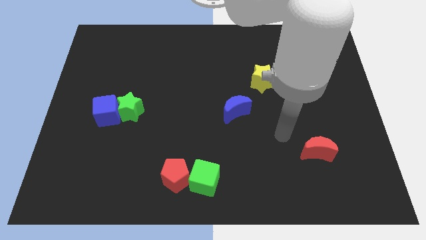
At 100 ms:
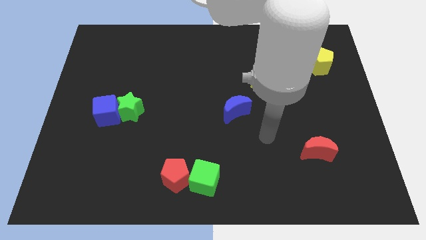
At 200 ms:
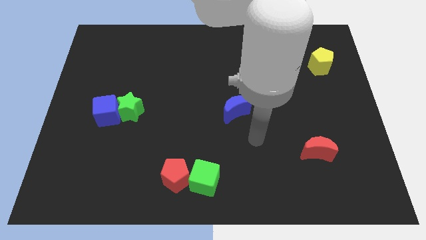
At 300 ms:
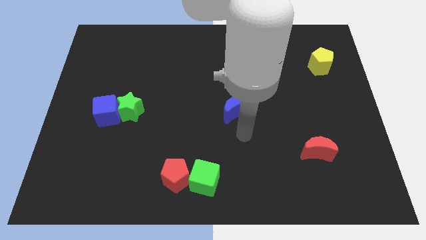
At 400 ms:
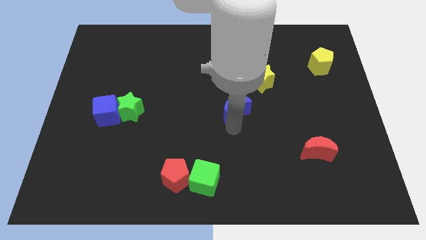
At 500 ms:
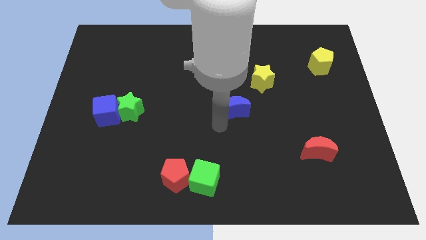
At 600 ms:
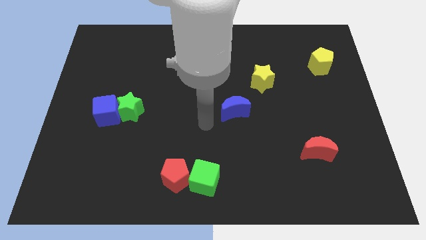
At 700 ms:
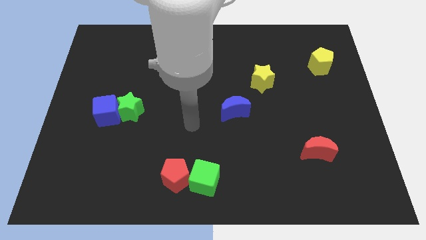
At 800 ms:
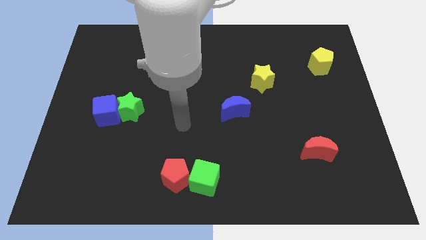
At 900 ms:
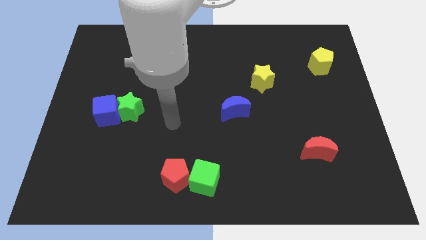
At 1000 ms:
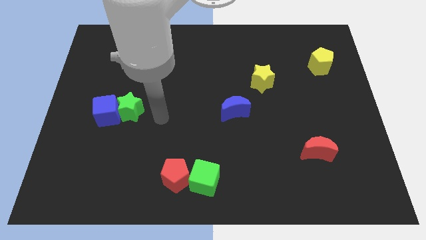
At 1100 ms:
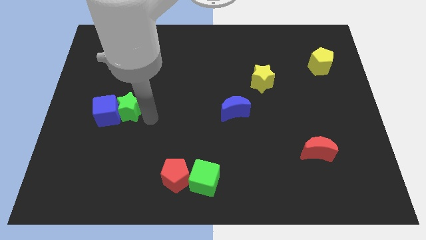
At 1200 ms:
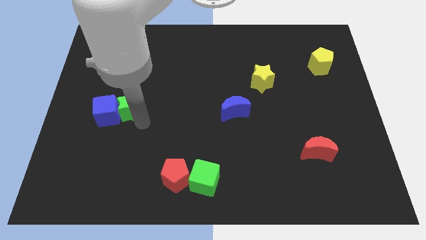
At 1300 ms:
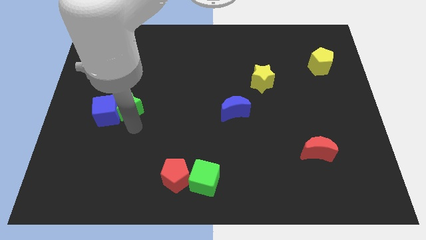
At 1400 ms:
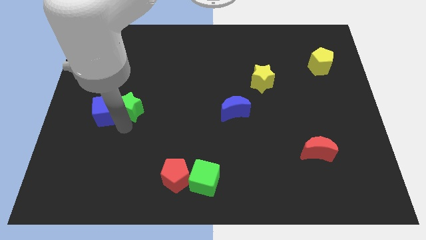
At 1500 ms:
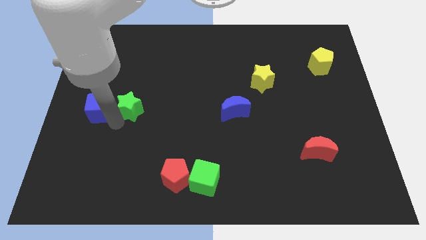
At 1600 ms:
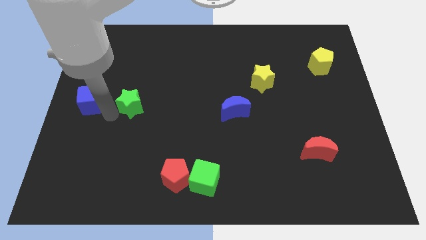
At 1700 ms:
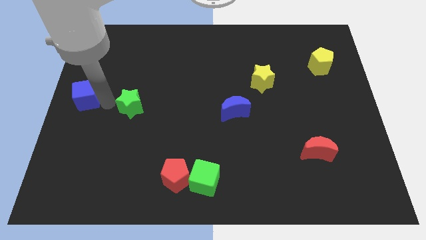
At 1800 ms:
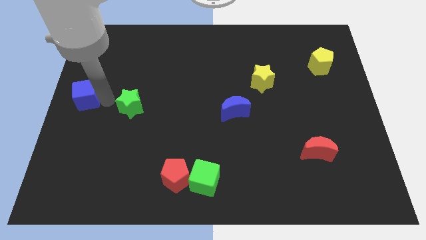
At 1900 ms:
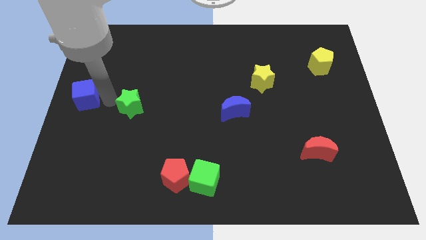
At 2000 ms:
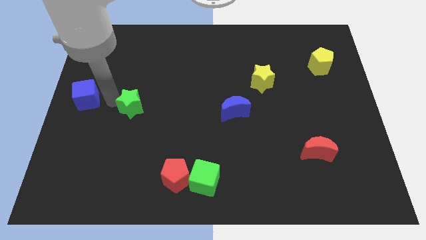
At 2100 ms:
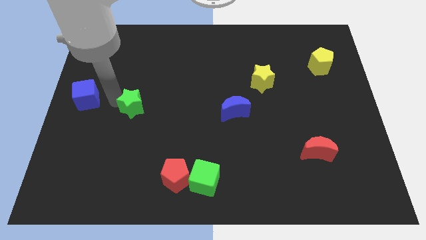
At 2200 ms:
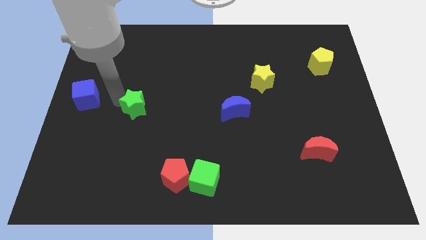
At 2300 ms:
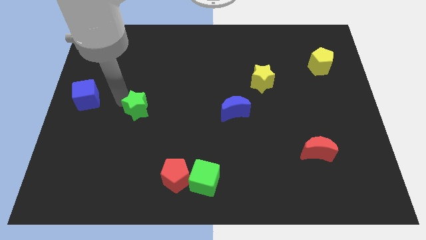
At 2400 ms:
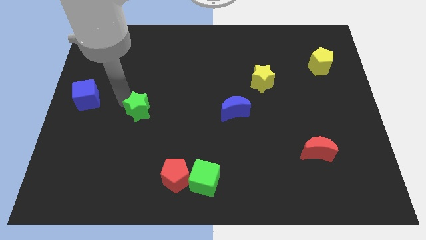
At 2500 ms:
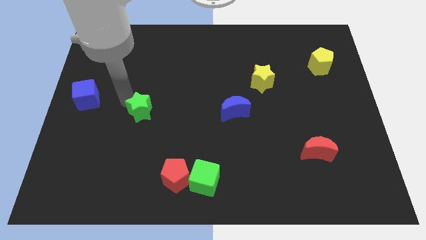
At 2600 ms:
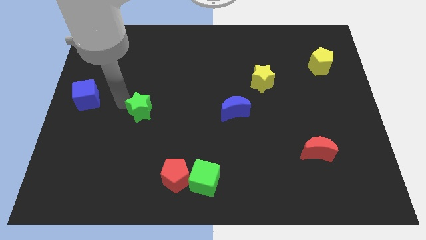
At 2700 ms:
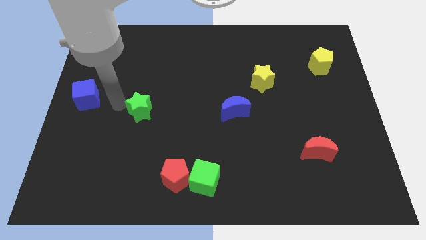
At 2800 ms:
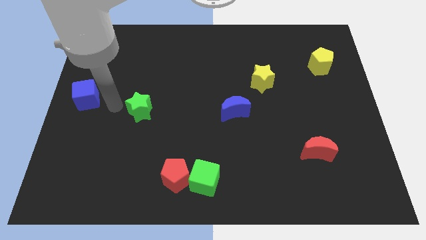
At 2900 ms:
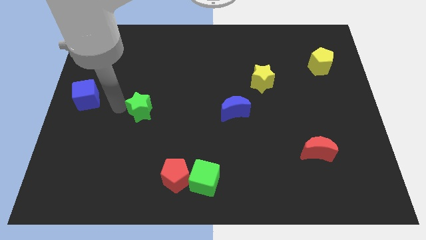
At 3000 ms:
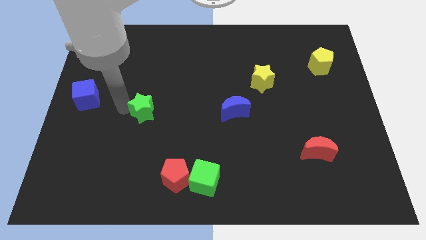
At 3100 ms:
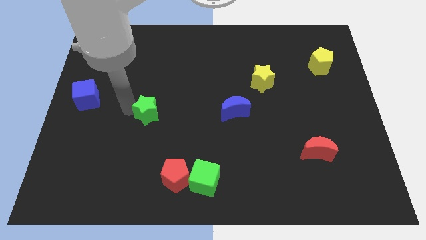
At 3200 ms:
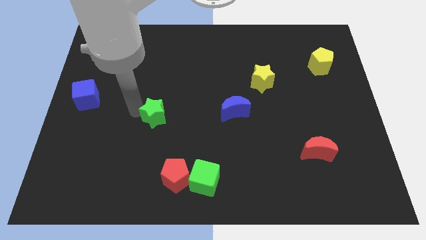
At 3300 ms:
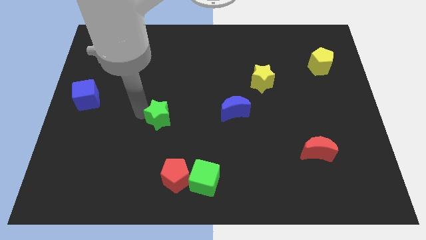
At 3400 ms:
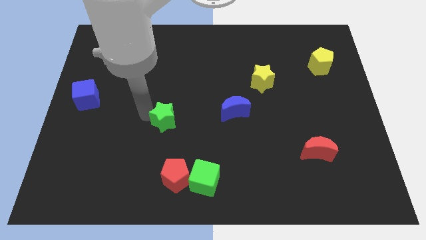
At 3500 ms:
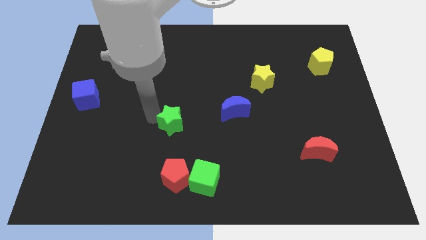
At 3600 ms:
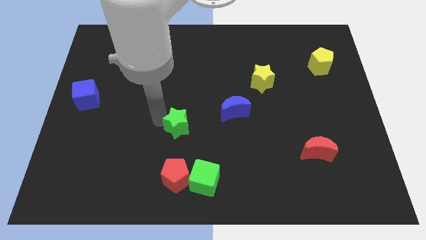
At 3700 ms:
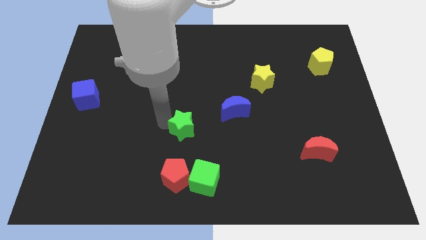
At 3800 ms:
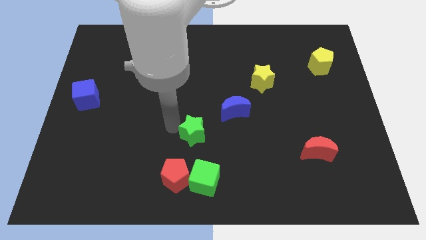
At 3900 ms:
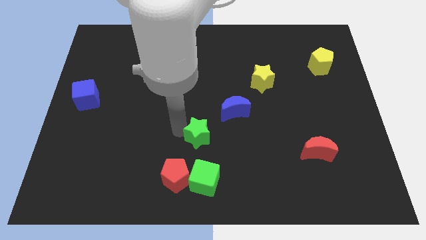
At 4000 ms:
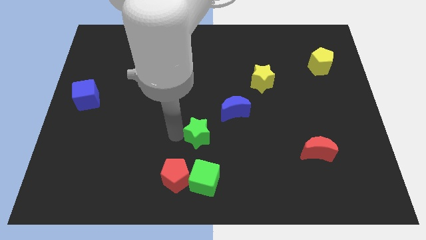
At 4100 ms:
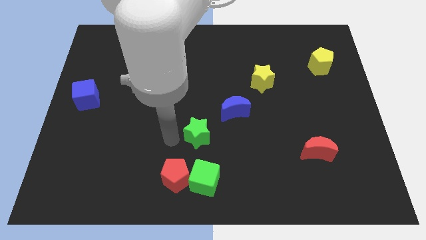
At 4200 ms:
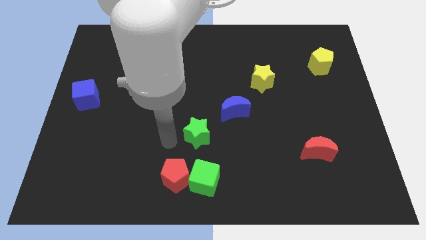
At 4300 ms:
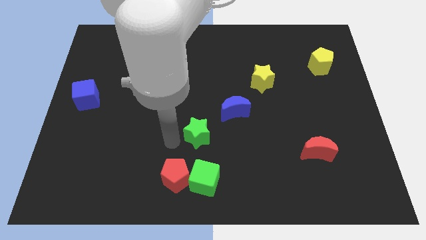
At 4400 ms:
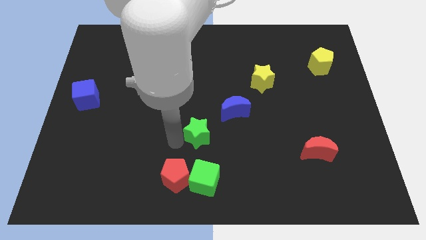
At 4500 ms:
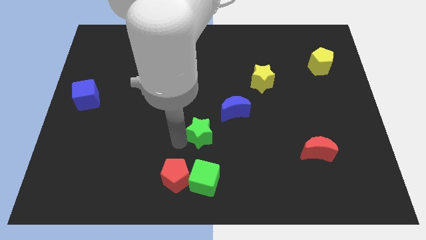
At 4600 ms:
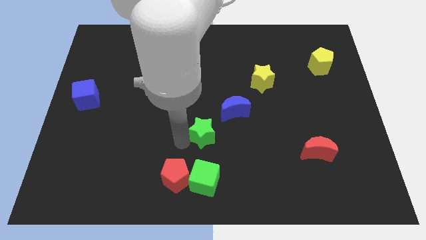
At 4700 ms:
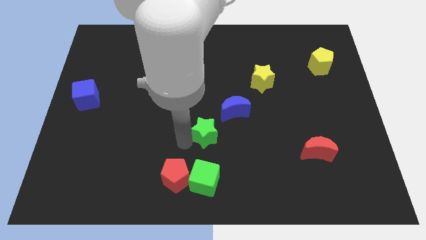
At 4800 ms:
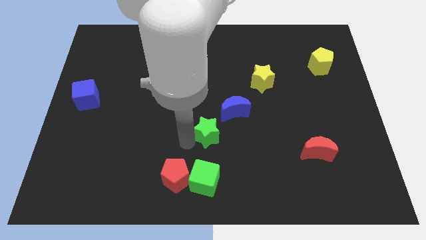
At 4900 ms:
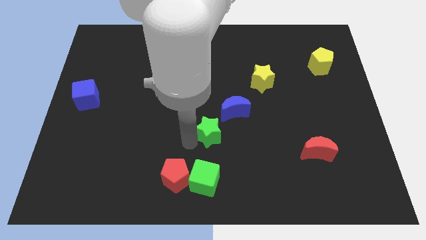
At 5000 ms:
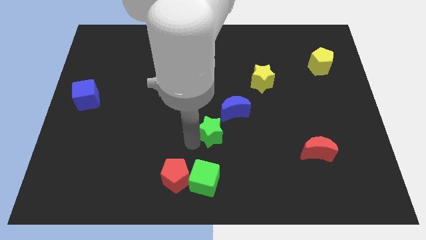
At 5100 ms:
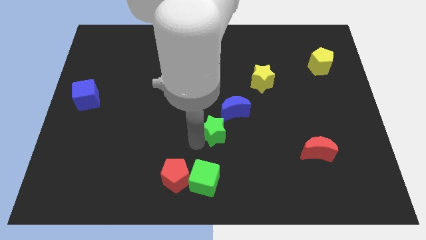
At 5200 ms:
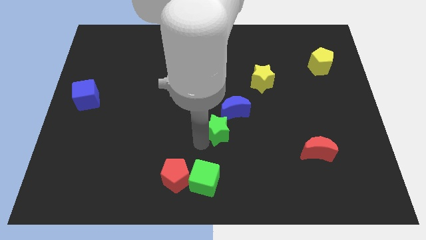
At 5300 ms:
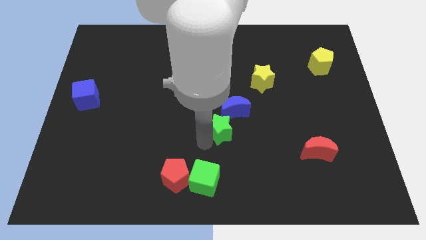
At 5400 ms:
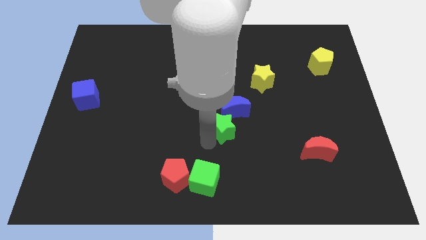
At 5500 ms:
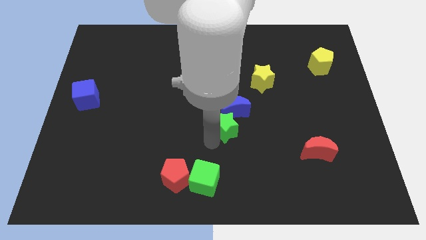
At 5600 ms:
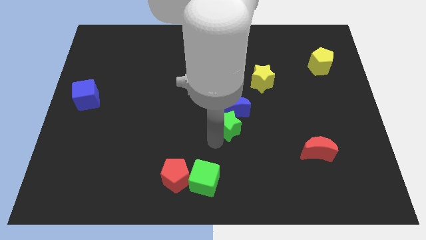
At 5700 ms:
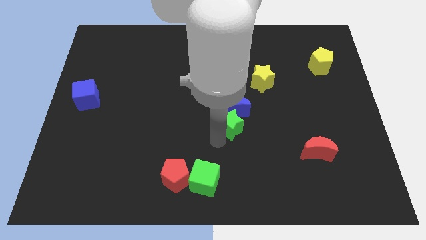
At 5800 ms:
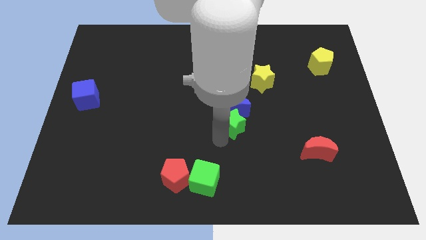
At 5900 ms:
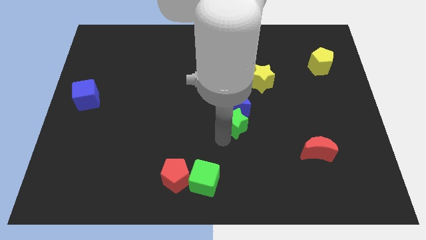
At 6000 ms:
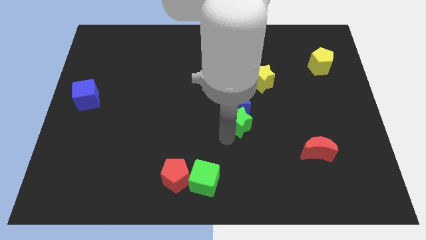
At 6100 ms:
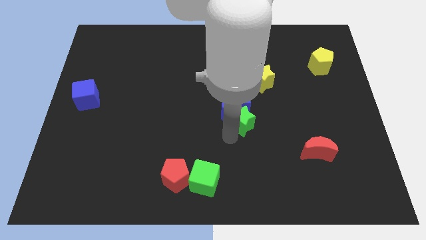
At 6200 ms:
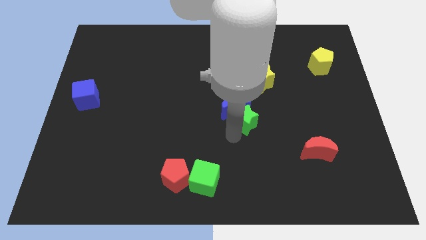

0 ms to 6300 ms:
slide the green star below the yellow star

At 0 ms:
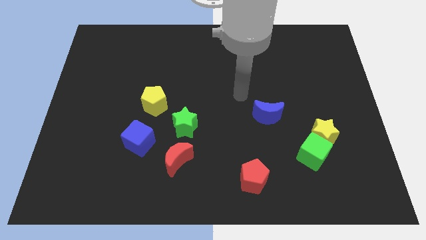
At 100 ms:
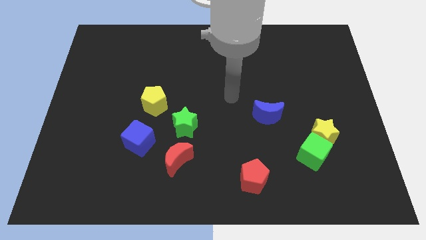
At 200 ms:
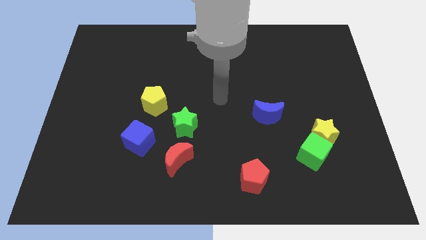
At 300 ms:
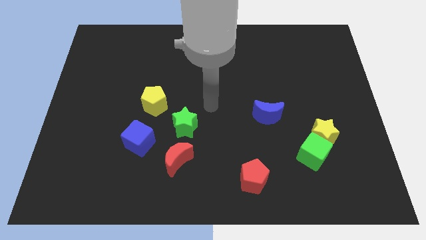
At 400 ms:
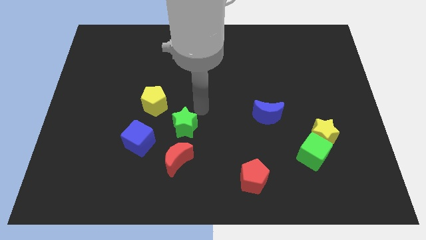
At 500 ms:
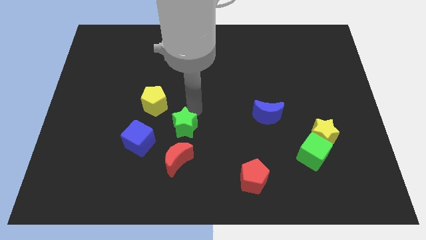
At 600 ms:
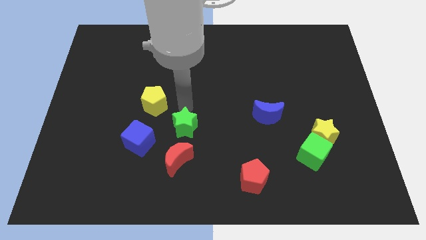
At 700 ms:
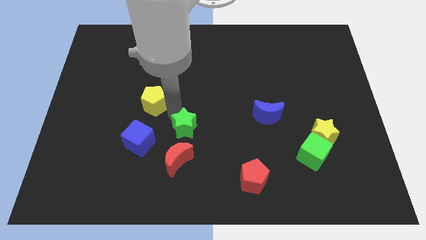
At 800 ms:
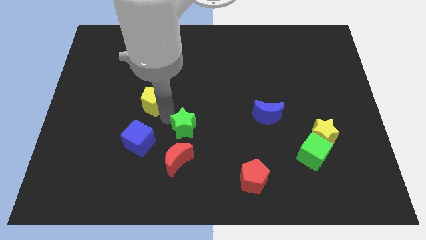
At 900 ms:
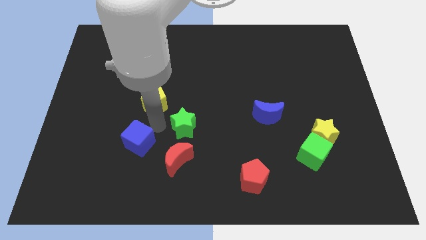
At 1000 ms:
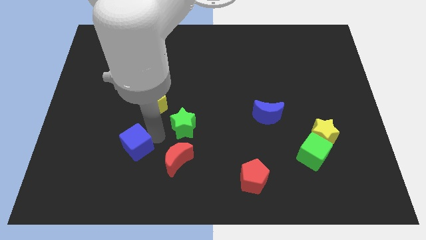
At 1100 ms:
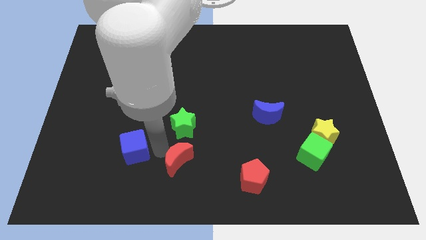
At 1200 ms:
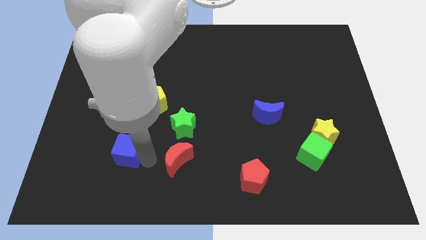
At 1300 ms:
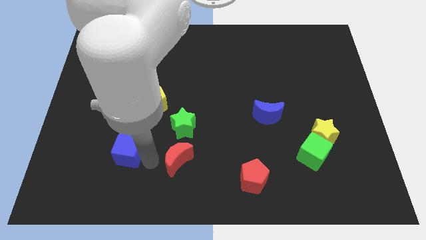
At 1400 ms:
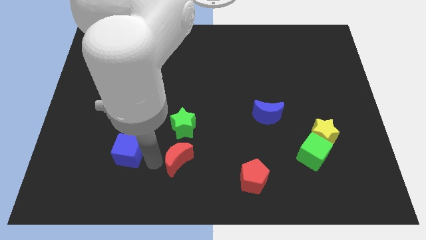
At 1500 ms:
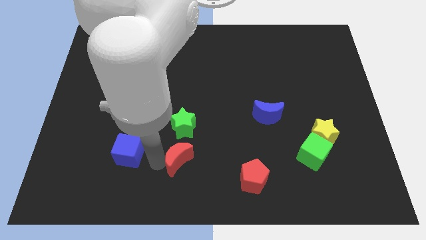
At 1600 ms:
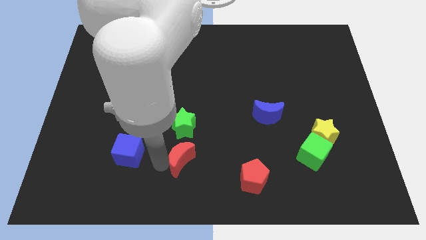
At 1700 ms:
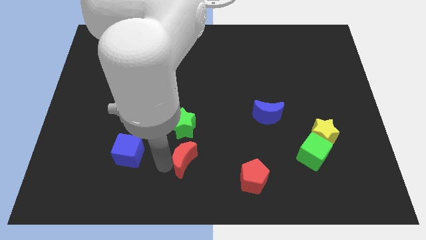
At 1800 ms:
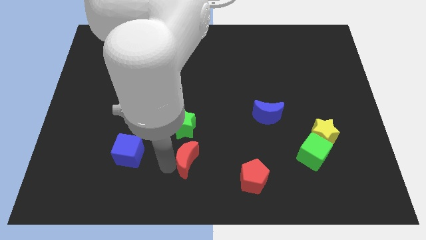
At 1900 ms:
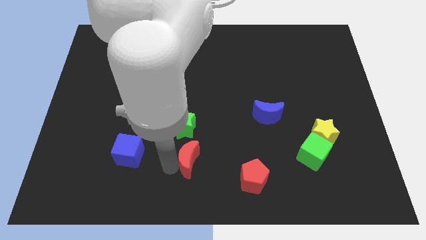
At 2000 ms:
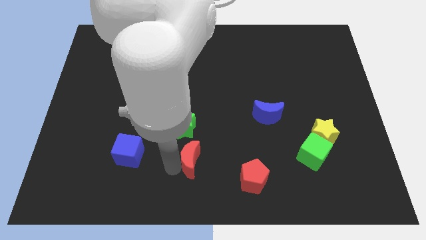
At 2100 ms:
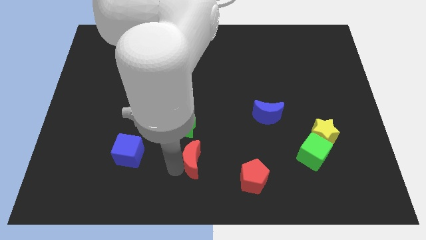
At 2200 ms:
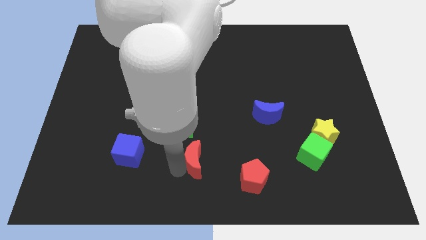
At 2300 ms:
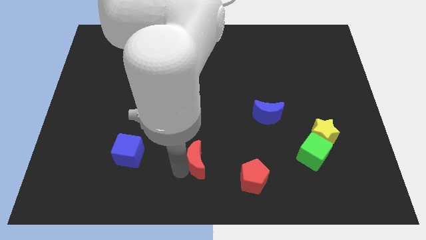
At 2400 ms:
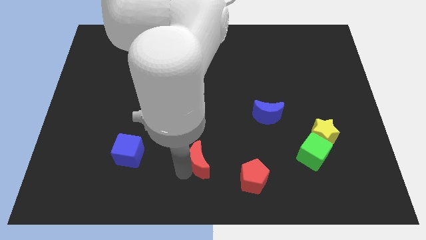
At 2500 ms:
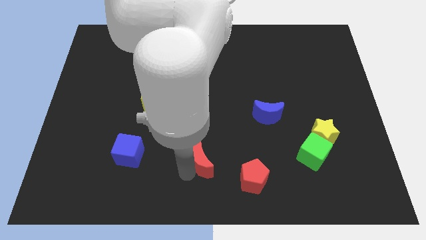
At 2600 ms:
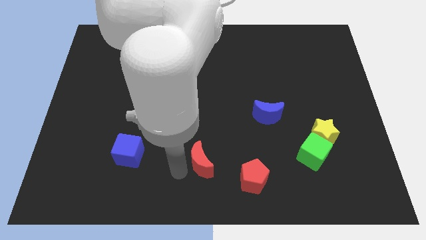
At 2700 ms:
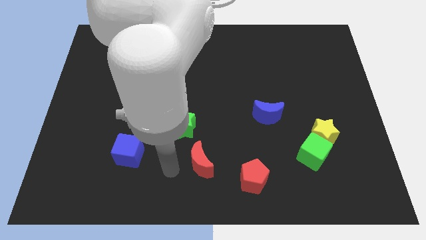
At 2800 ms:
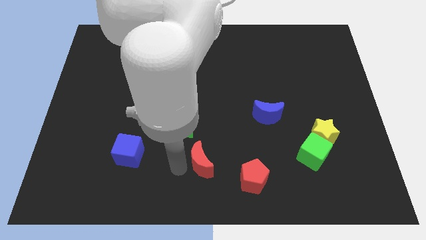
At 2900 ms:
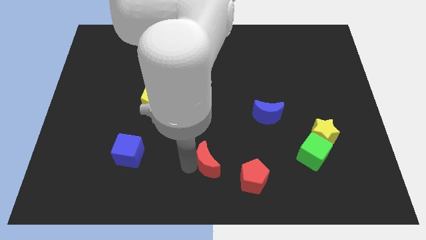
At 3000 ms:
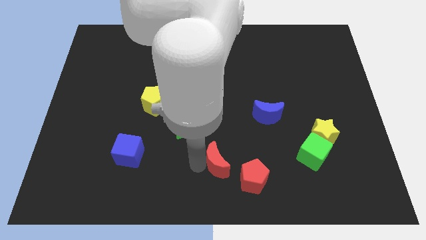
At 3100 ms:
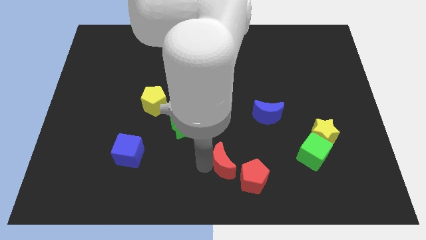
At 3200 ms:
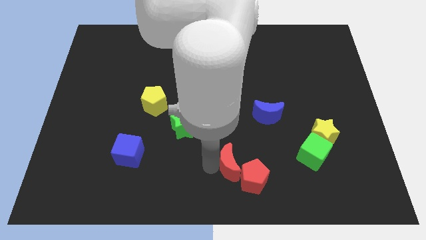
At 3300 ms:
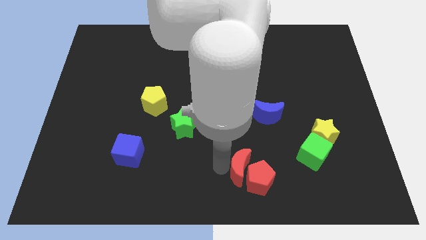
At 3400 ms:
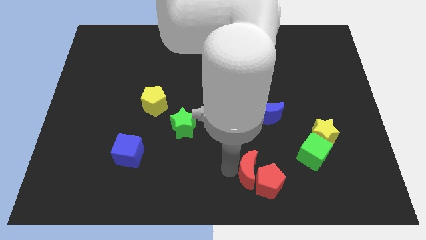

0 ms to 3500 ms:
put the red moon just left of the green cube
